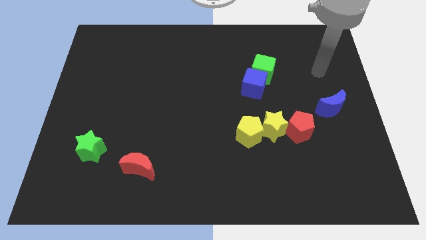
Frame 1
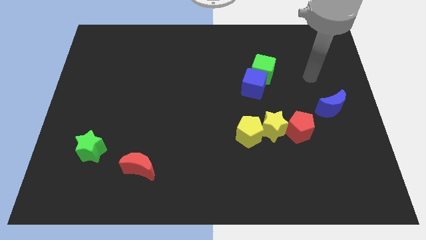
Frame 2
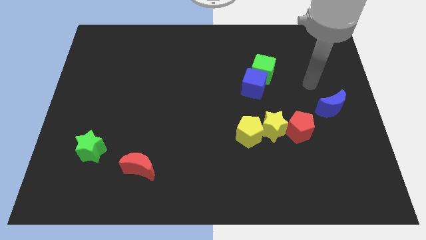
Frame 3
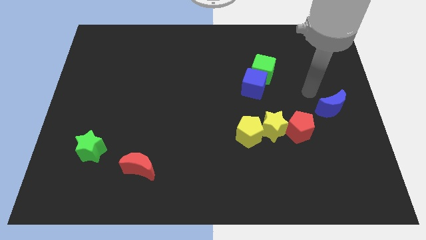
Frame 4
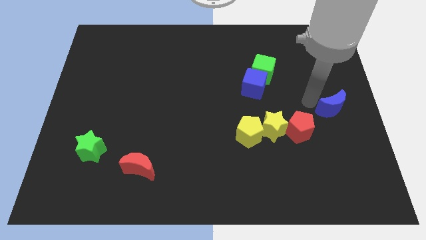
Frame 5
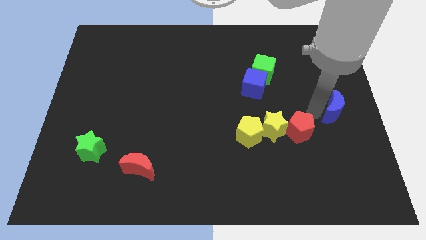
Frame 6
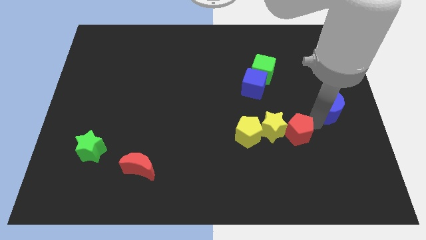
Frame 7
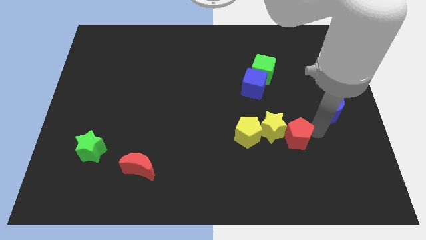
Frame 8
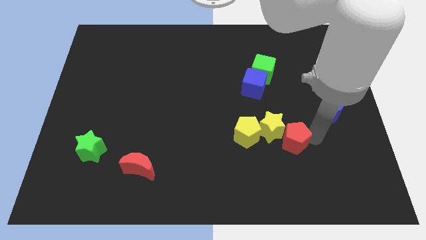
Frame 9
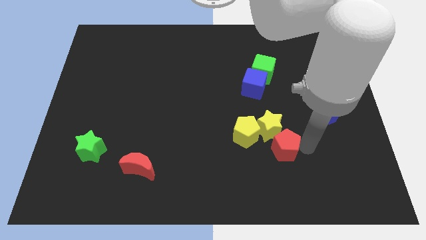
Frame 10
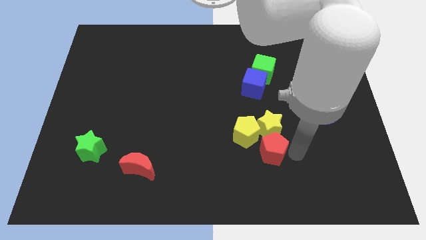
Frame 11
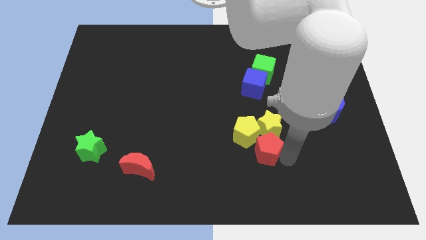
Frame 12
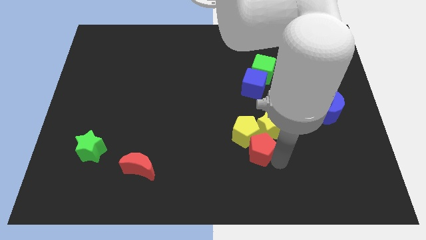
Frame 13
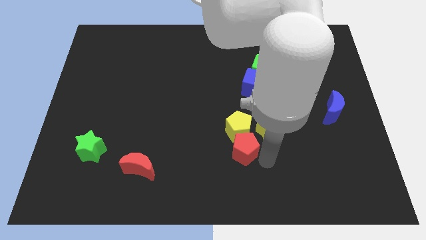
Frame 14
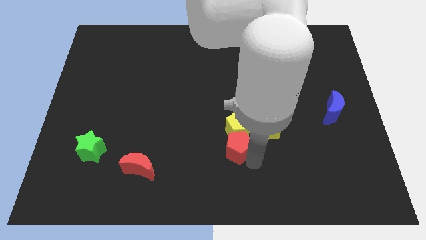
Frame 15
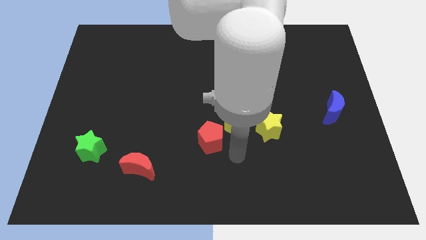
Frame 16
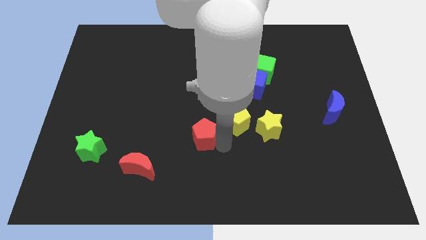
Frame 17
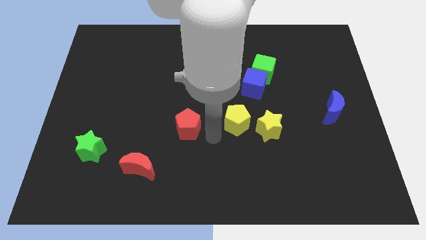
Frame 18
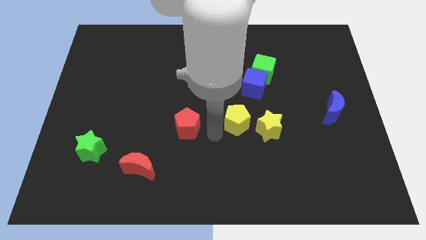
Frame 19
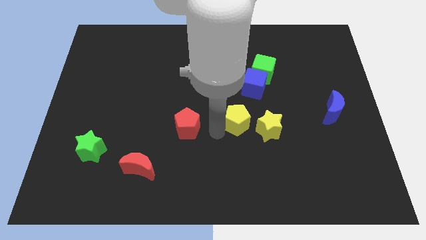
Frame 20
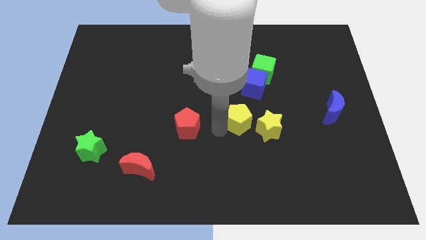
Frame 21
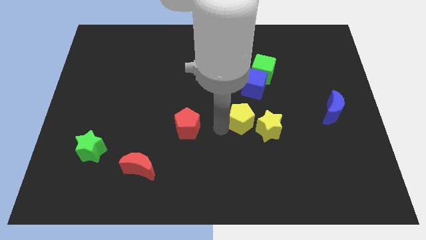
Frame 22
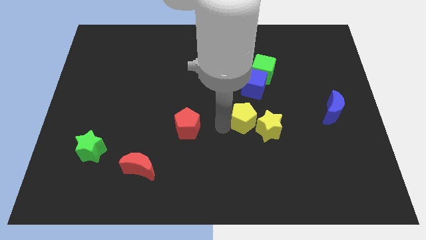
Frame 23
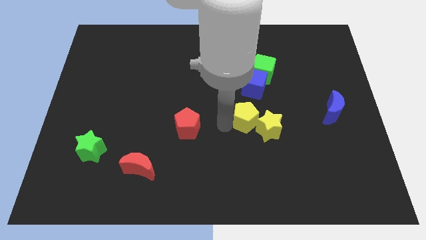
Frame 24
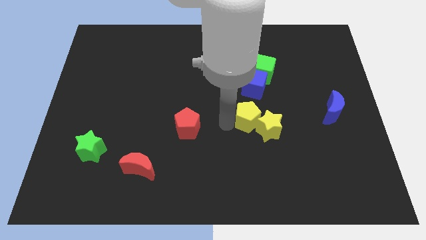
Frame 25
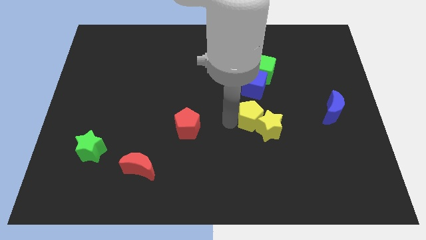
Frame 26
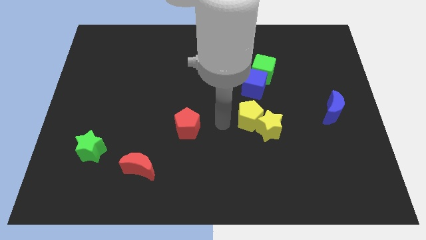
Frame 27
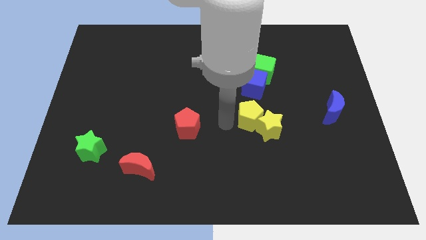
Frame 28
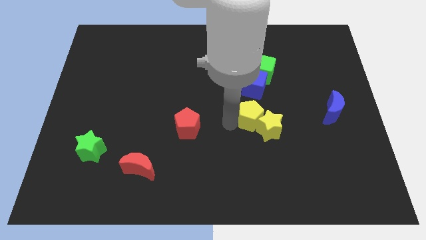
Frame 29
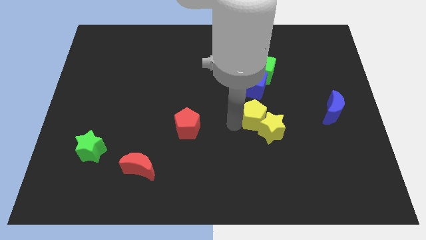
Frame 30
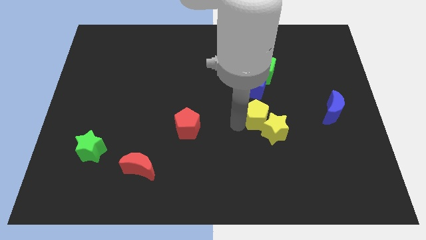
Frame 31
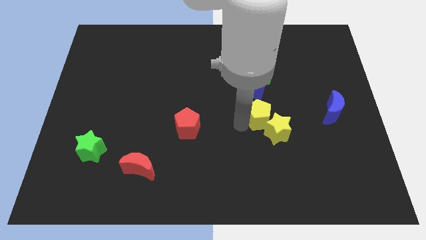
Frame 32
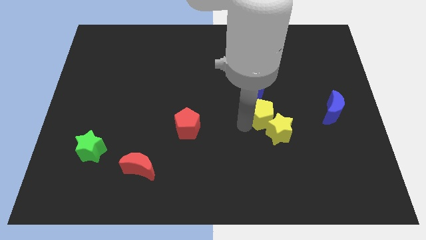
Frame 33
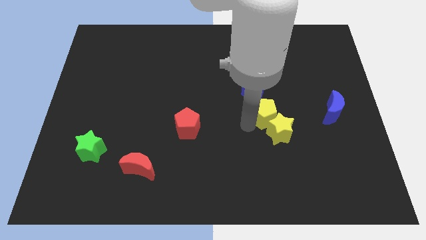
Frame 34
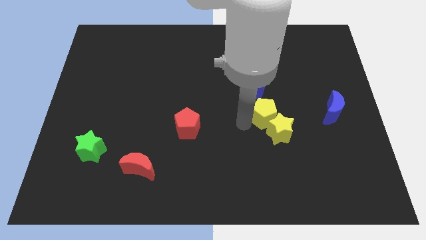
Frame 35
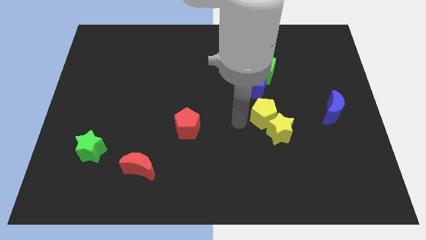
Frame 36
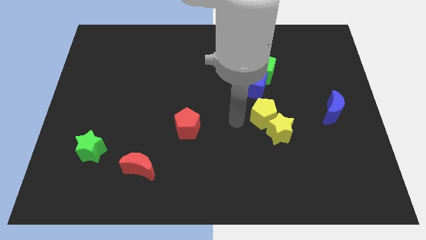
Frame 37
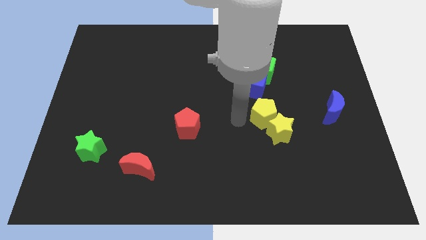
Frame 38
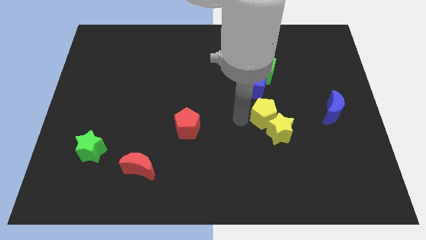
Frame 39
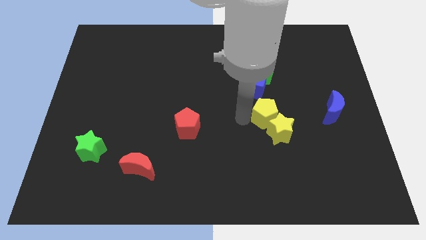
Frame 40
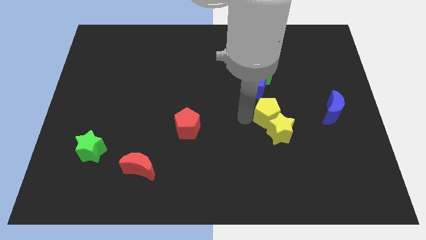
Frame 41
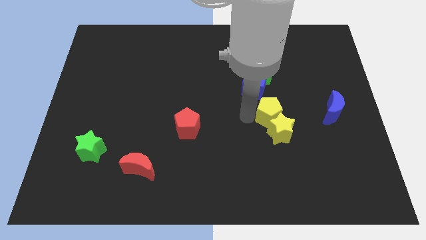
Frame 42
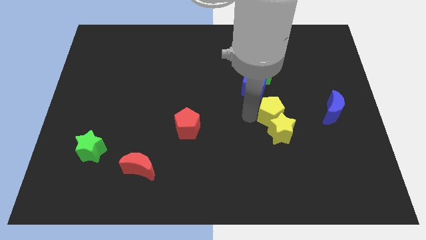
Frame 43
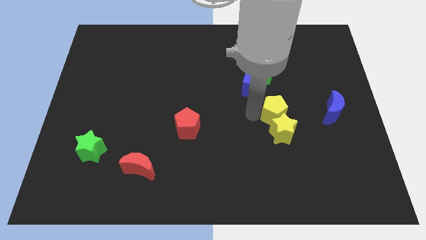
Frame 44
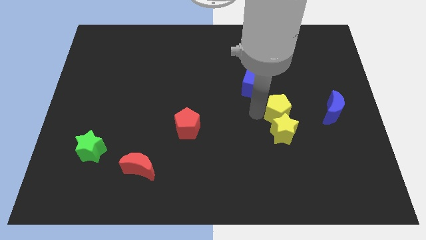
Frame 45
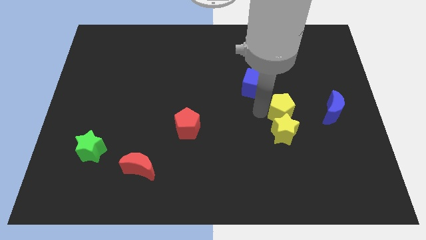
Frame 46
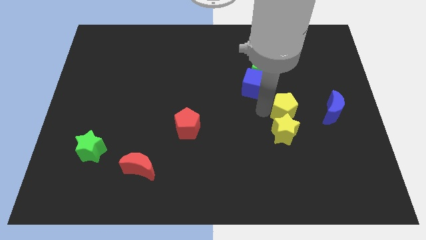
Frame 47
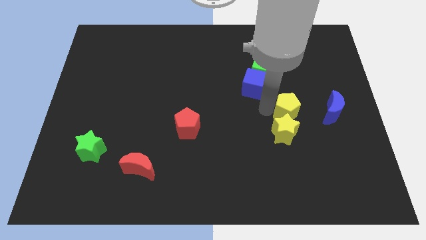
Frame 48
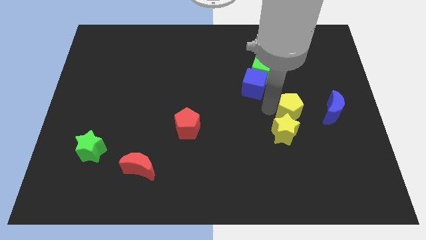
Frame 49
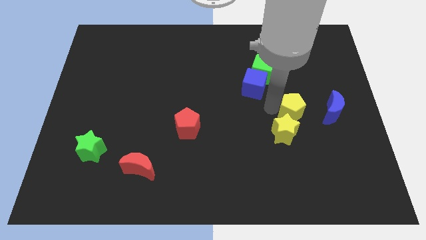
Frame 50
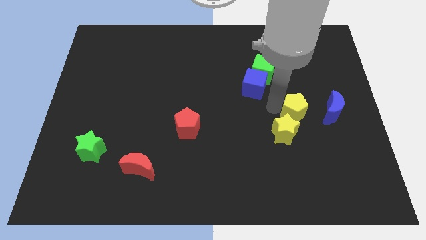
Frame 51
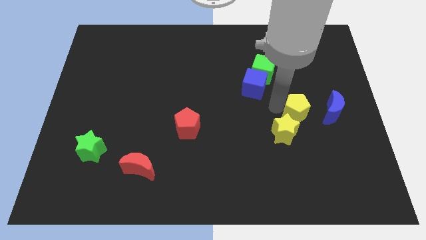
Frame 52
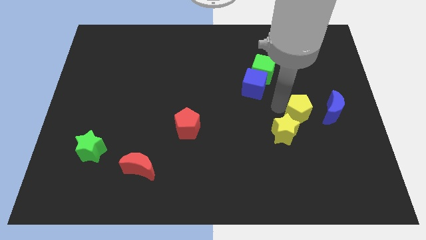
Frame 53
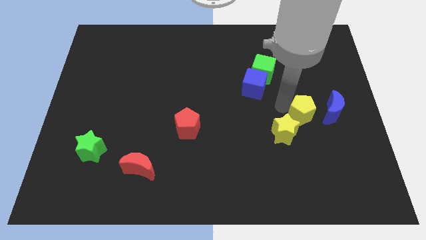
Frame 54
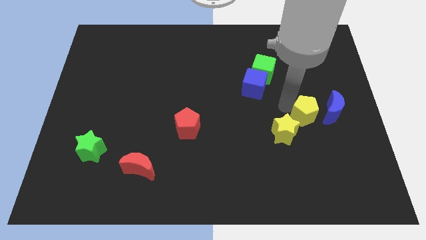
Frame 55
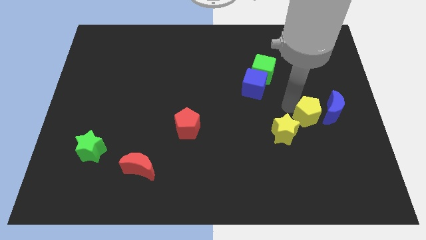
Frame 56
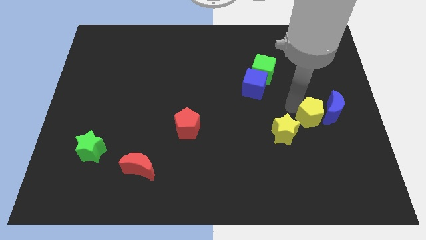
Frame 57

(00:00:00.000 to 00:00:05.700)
move the yellow pentagon next to the blue moon

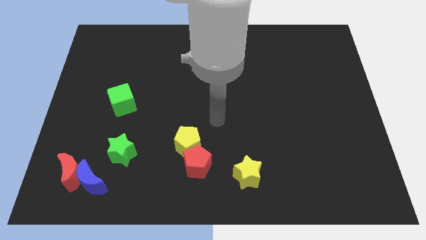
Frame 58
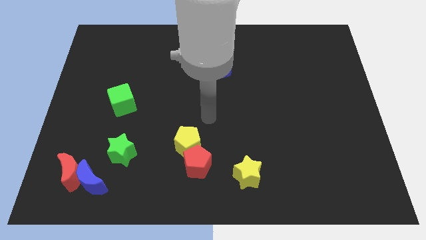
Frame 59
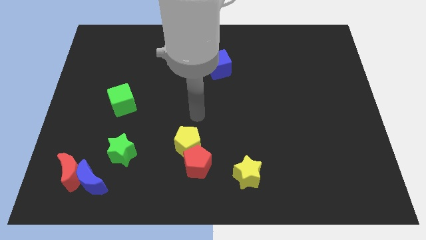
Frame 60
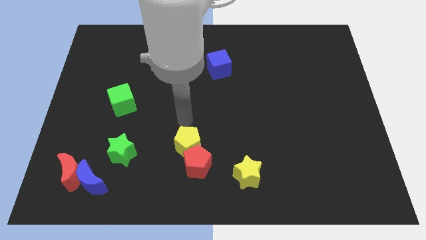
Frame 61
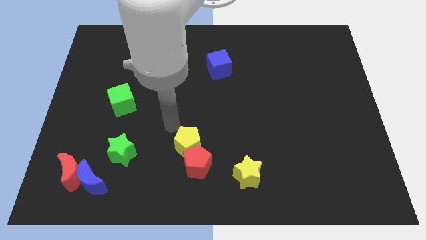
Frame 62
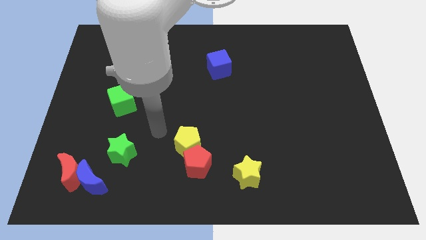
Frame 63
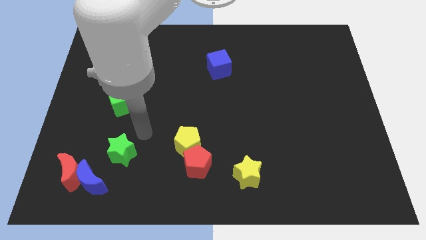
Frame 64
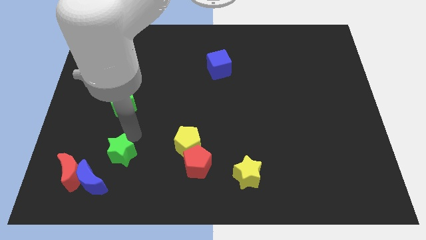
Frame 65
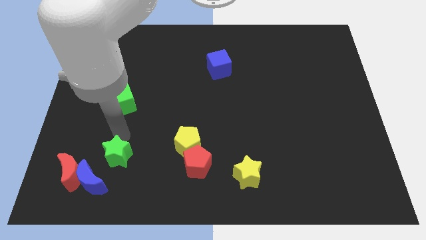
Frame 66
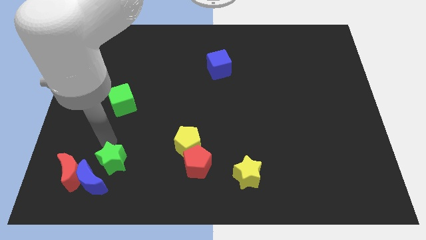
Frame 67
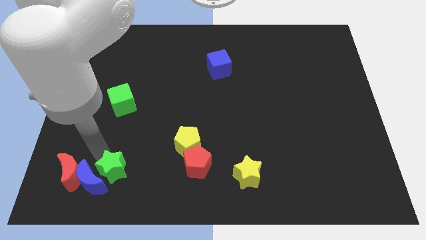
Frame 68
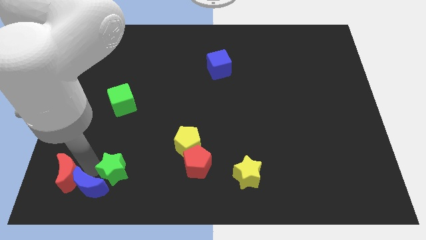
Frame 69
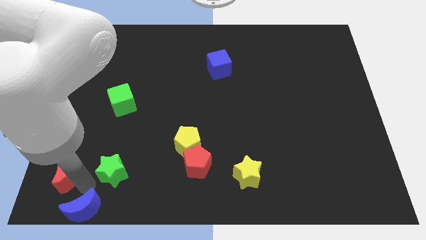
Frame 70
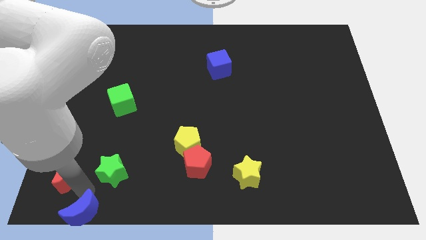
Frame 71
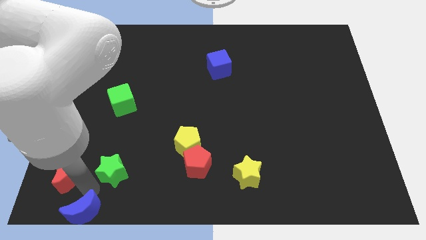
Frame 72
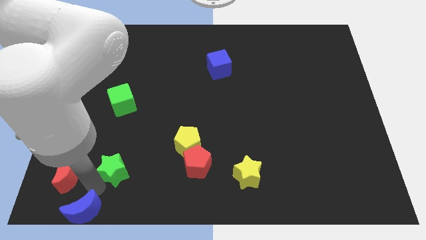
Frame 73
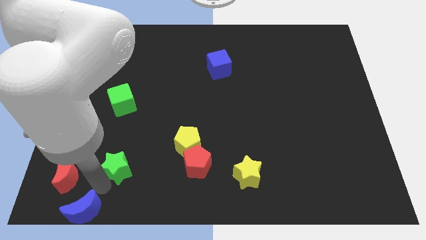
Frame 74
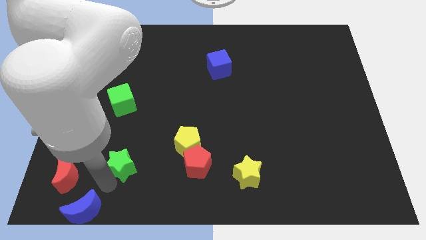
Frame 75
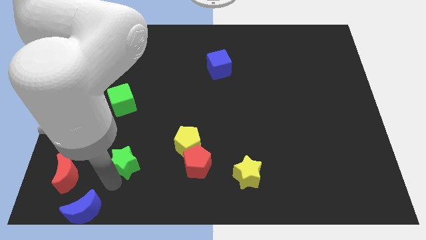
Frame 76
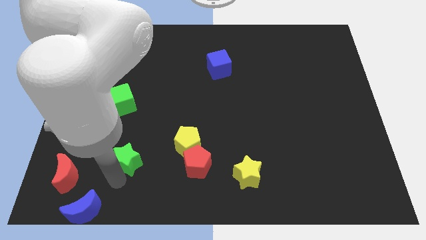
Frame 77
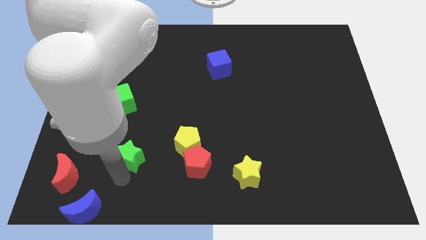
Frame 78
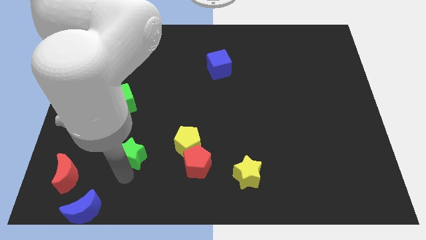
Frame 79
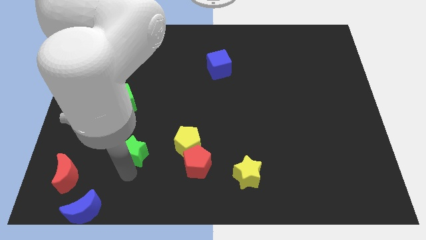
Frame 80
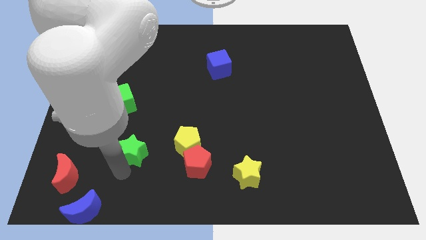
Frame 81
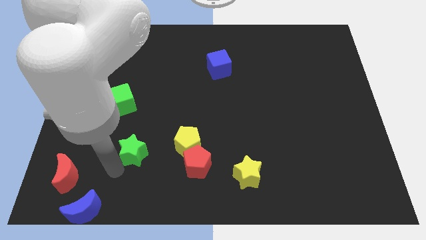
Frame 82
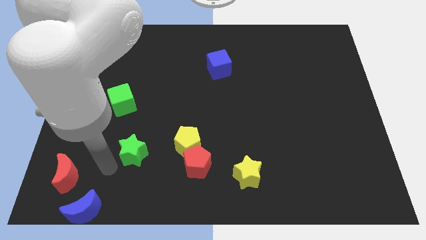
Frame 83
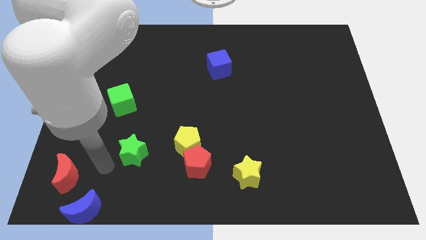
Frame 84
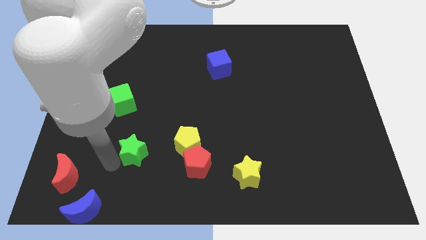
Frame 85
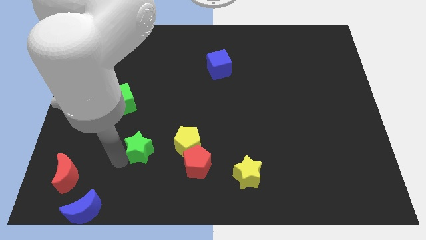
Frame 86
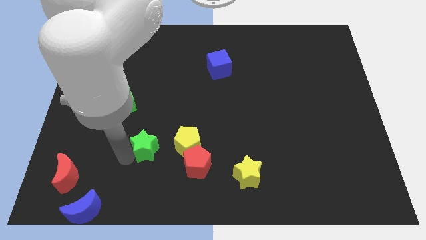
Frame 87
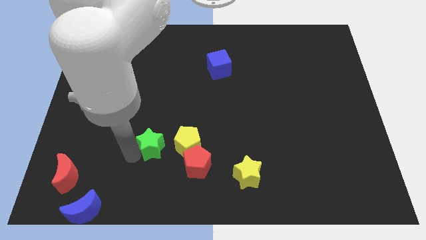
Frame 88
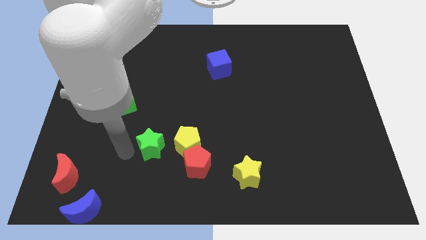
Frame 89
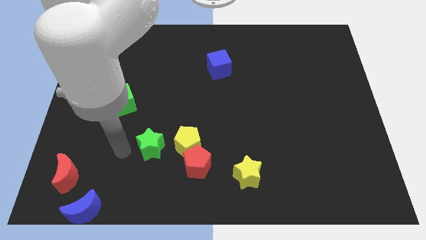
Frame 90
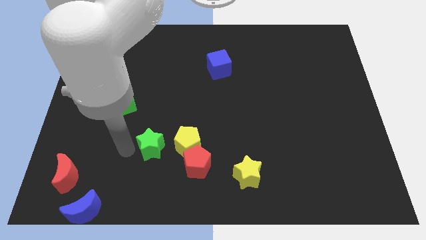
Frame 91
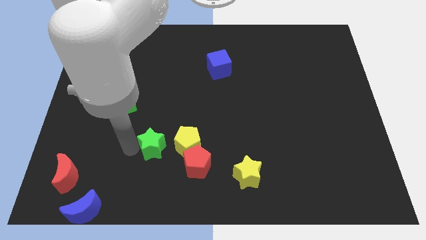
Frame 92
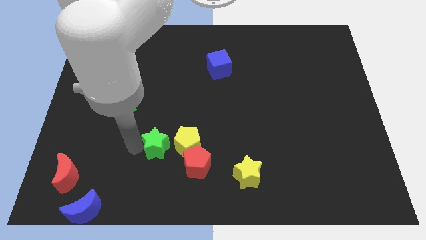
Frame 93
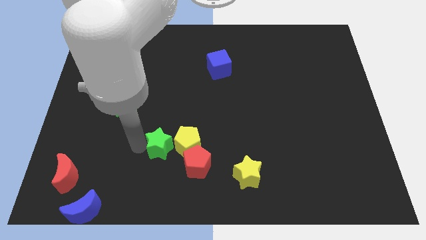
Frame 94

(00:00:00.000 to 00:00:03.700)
push the green star towards the yellow pentagon
